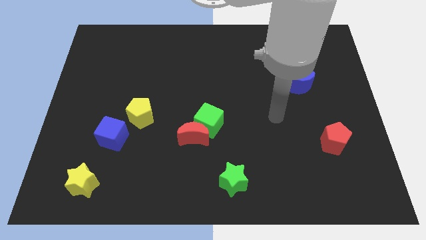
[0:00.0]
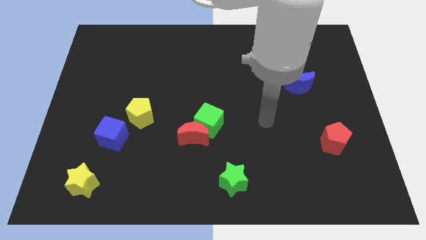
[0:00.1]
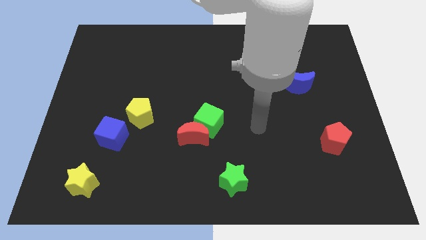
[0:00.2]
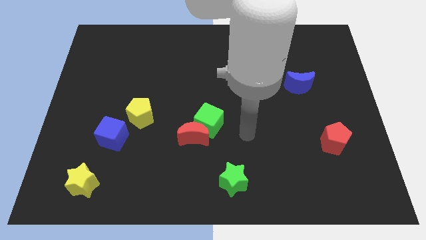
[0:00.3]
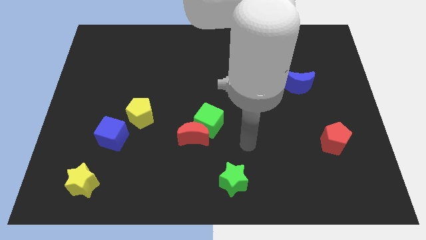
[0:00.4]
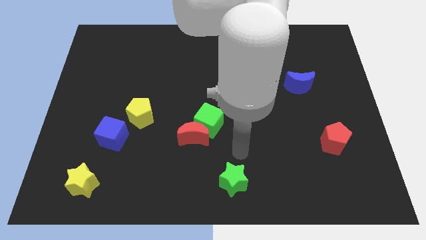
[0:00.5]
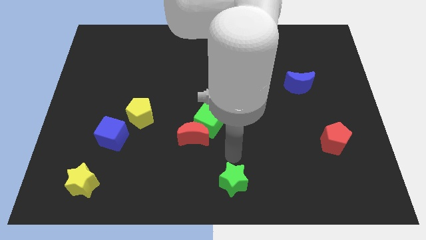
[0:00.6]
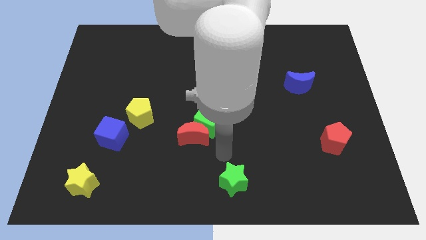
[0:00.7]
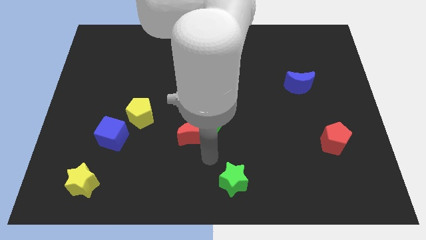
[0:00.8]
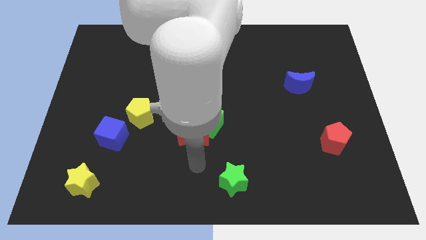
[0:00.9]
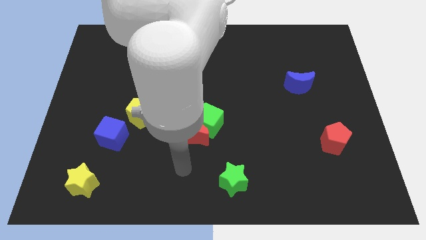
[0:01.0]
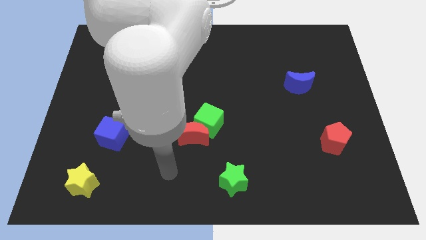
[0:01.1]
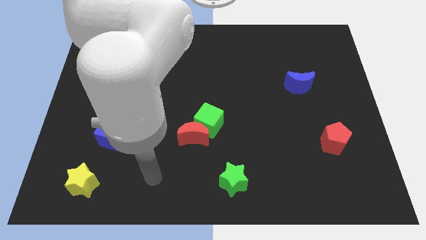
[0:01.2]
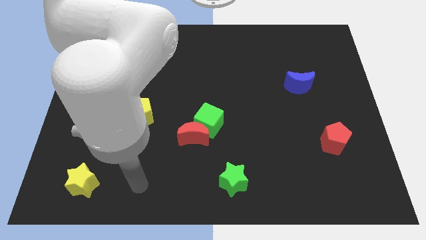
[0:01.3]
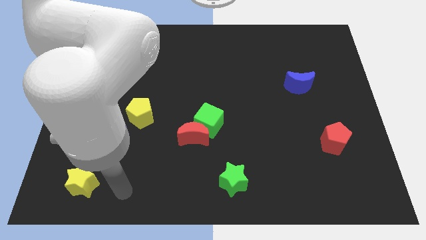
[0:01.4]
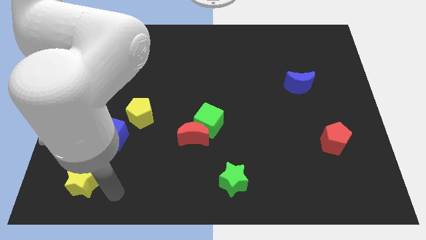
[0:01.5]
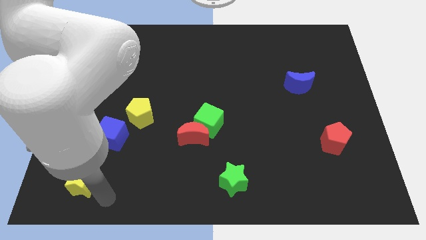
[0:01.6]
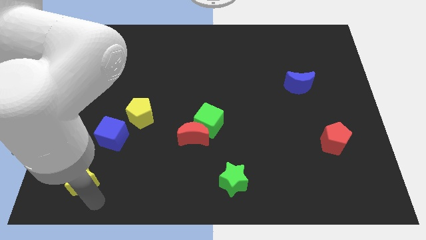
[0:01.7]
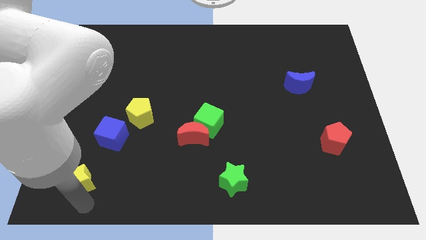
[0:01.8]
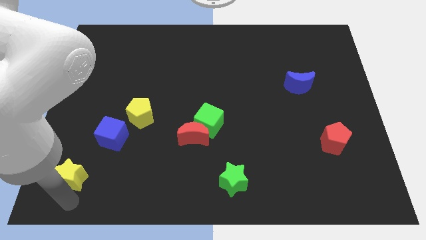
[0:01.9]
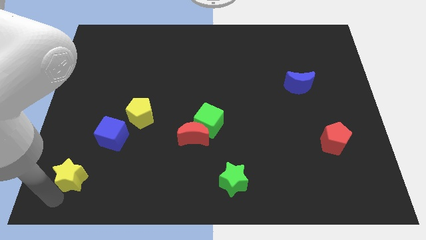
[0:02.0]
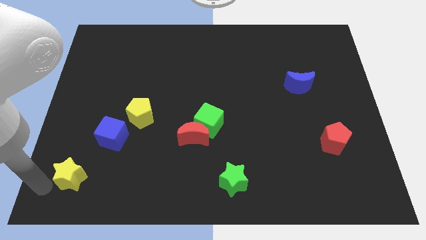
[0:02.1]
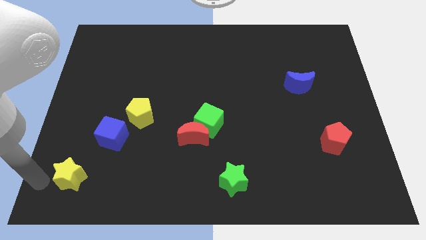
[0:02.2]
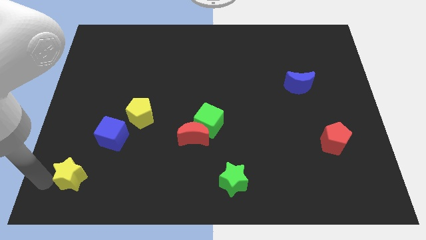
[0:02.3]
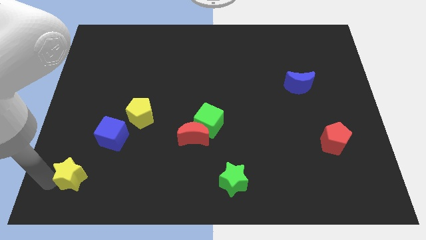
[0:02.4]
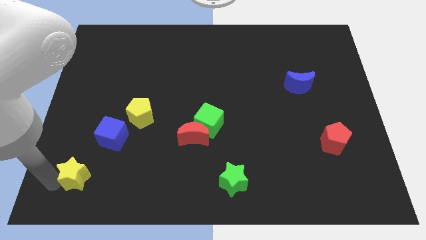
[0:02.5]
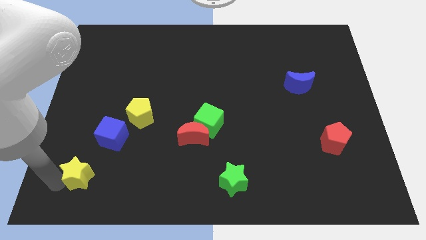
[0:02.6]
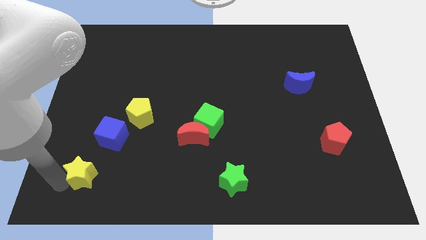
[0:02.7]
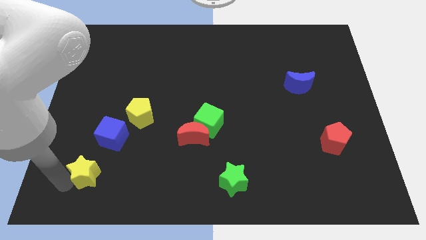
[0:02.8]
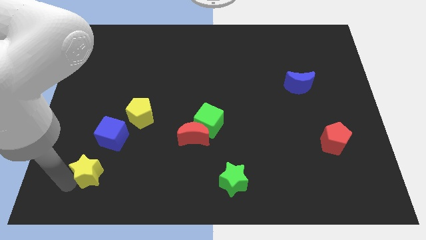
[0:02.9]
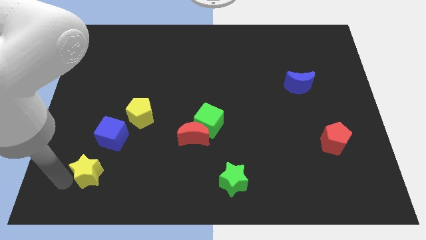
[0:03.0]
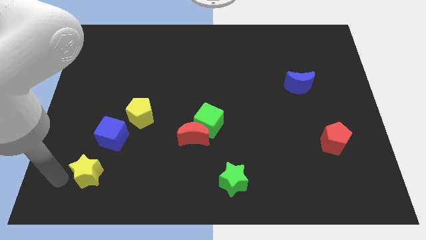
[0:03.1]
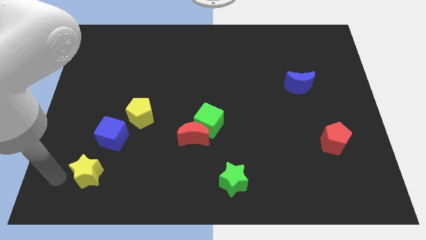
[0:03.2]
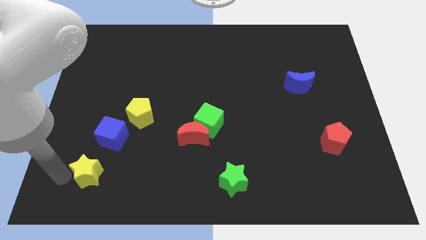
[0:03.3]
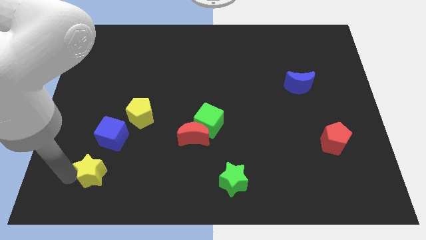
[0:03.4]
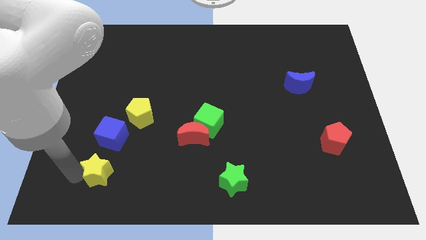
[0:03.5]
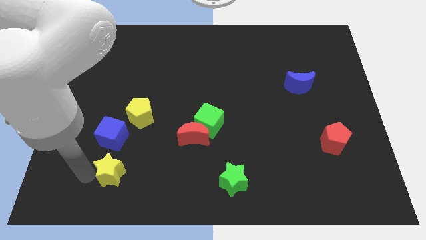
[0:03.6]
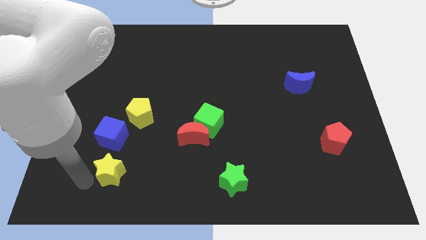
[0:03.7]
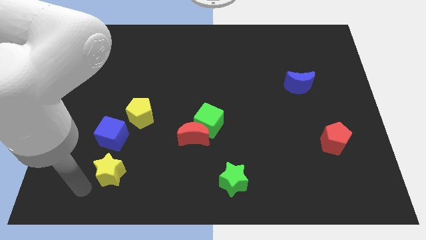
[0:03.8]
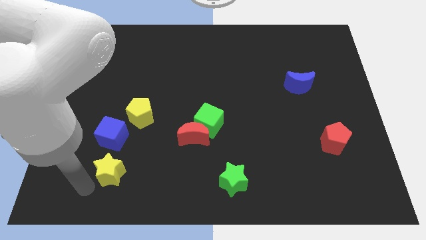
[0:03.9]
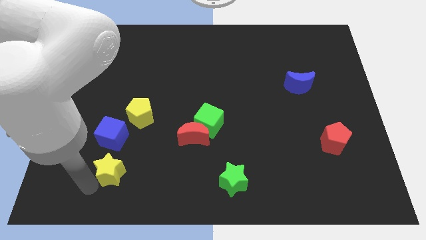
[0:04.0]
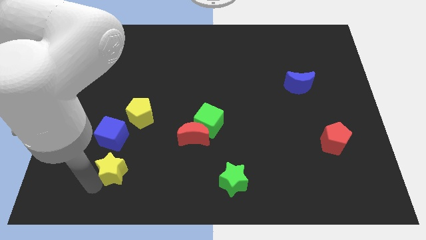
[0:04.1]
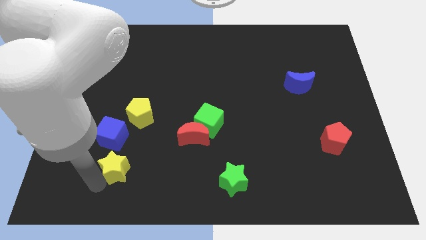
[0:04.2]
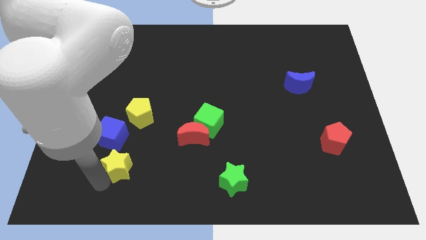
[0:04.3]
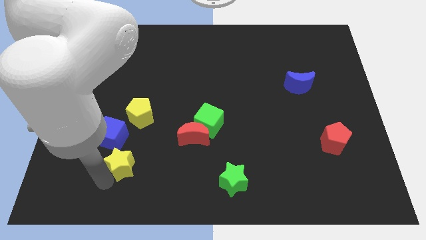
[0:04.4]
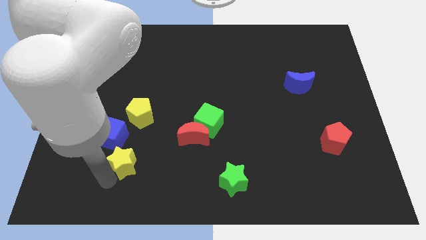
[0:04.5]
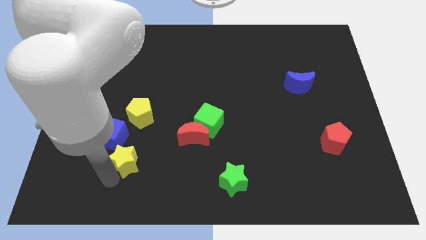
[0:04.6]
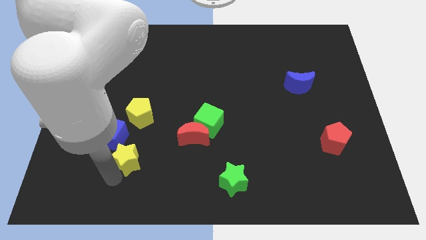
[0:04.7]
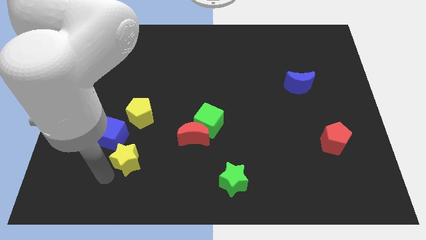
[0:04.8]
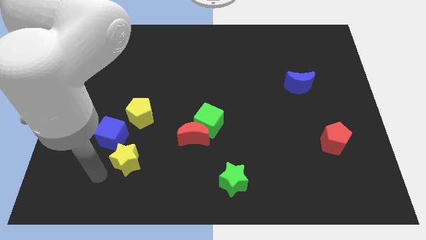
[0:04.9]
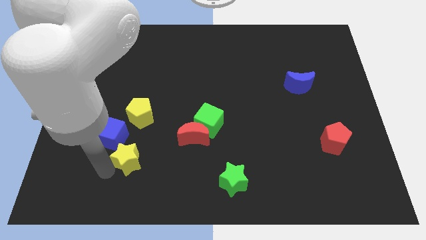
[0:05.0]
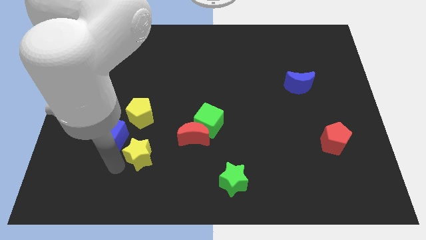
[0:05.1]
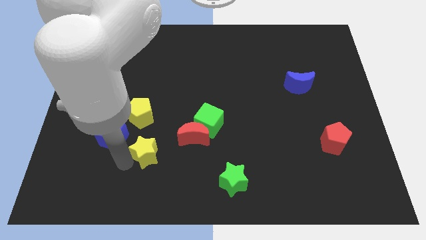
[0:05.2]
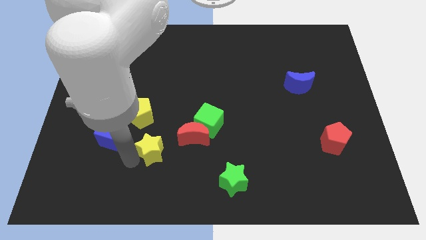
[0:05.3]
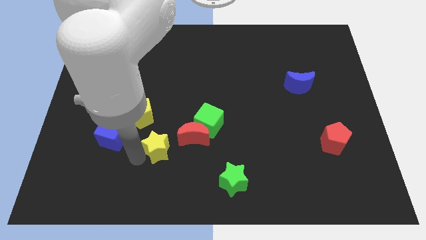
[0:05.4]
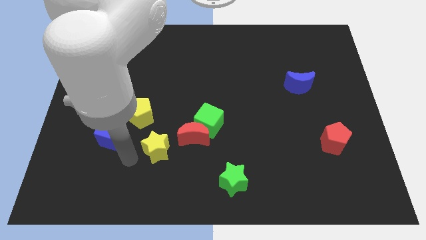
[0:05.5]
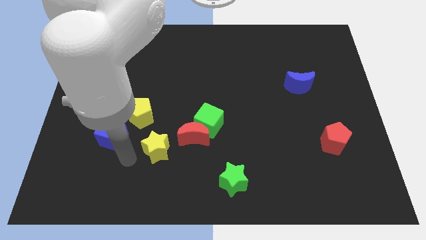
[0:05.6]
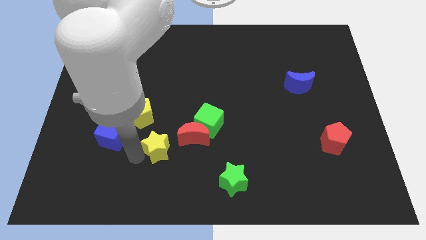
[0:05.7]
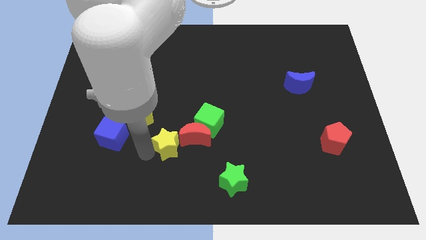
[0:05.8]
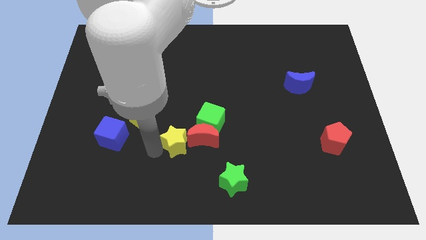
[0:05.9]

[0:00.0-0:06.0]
slide the yellow star to the red moon

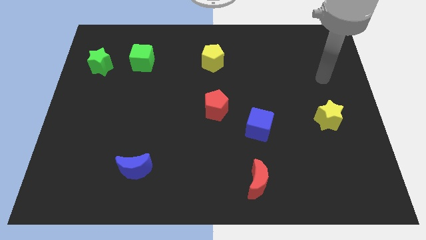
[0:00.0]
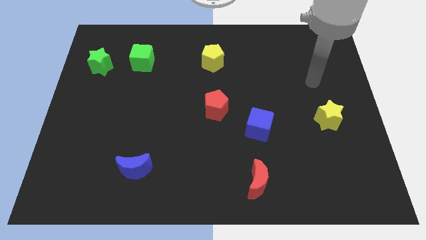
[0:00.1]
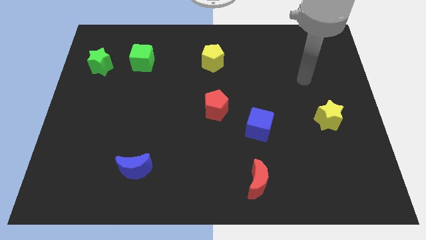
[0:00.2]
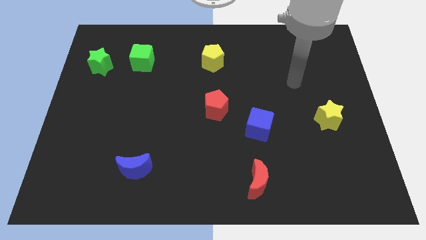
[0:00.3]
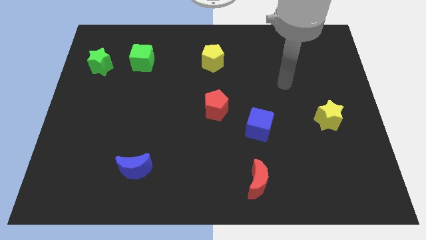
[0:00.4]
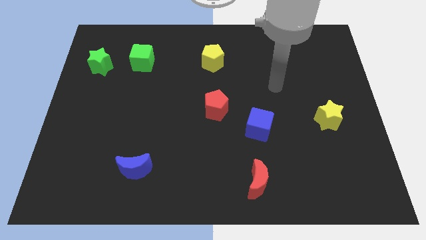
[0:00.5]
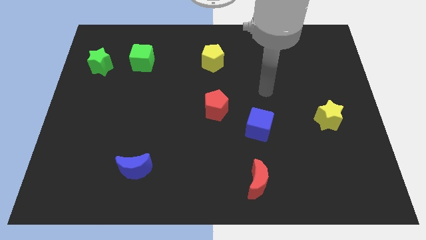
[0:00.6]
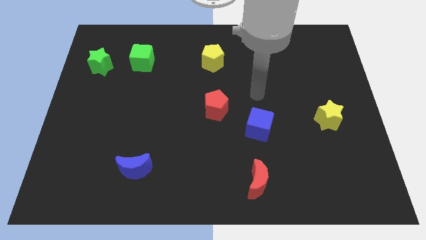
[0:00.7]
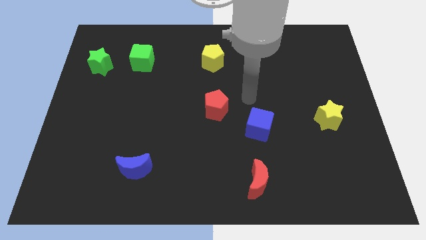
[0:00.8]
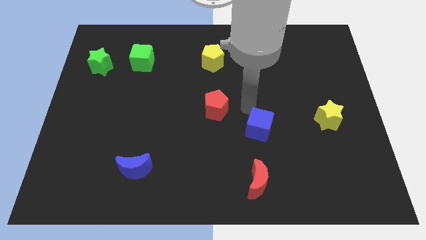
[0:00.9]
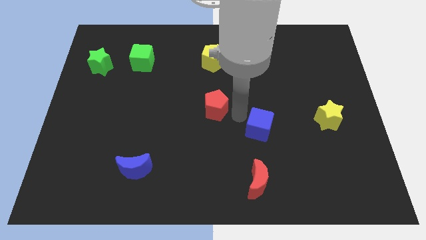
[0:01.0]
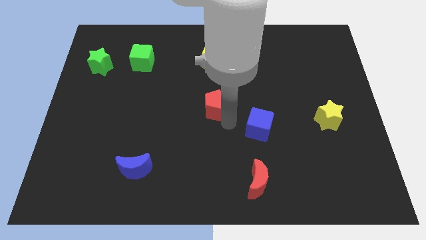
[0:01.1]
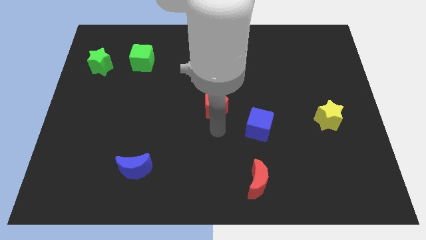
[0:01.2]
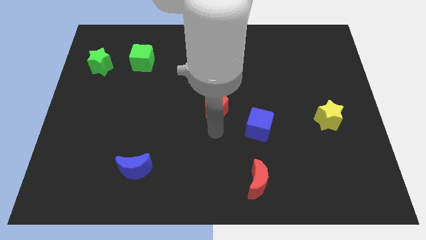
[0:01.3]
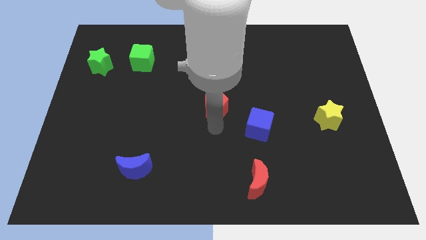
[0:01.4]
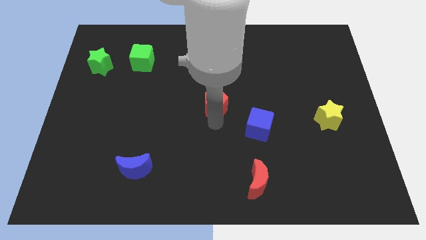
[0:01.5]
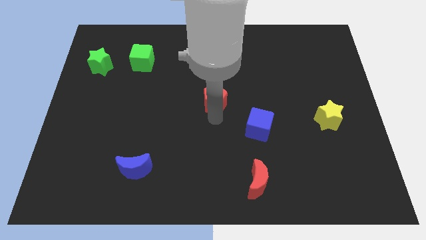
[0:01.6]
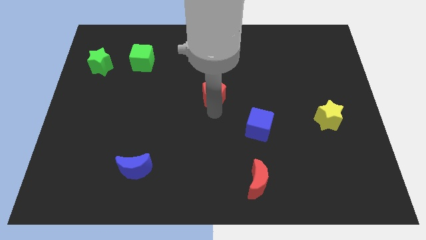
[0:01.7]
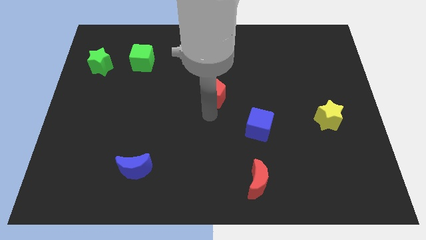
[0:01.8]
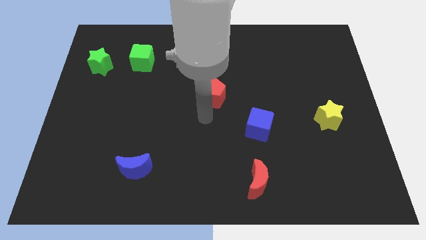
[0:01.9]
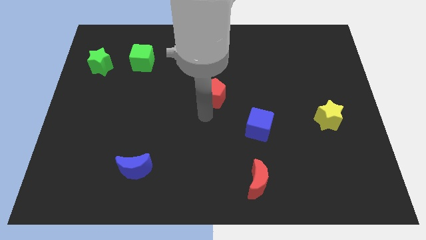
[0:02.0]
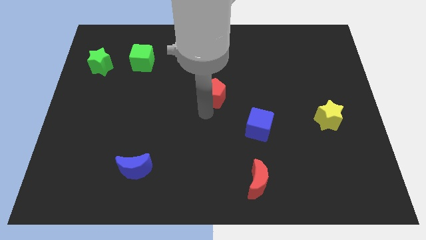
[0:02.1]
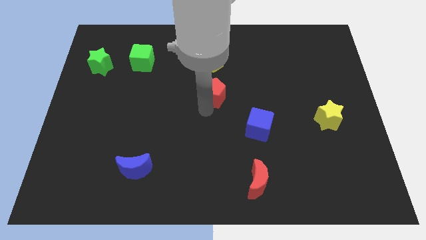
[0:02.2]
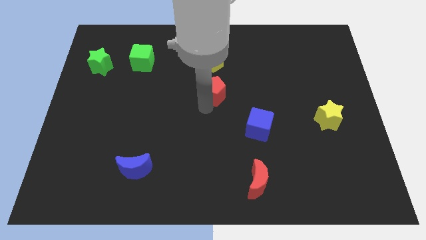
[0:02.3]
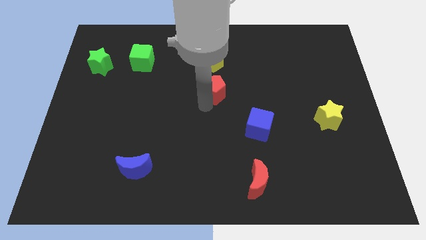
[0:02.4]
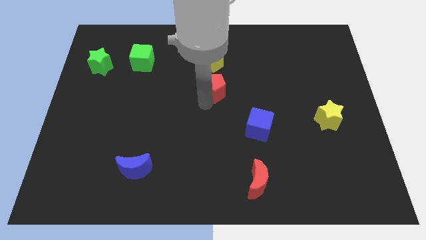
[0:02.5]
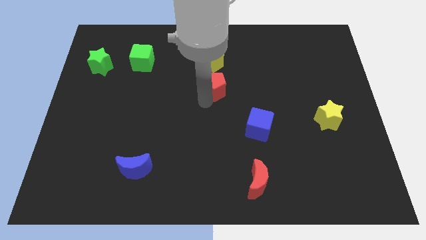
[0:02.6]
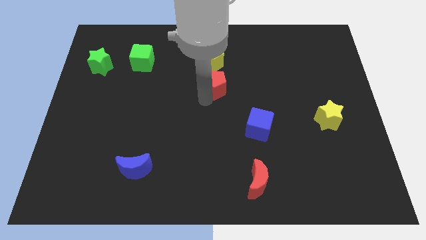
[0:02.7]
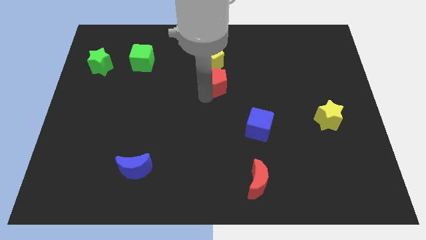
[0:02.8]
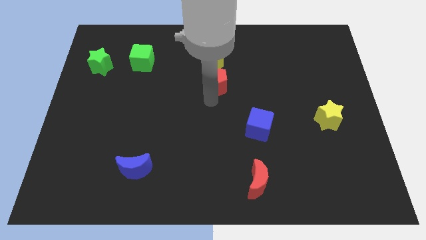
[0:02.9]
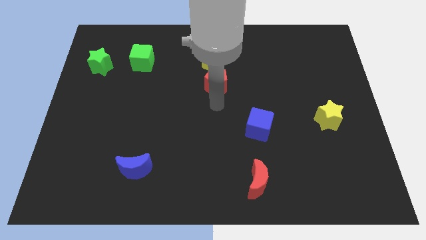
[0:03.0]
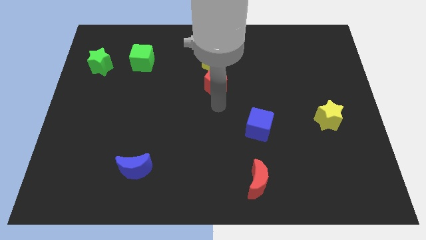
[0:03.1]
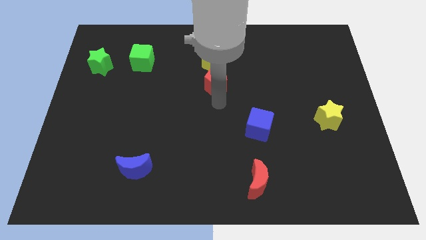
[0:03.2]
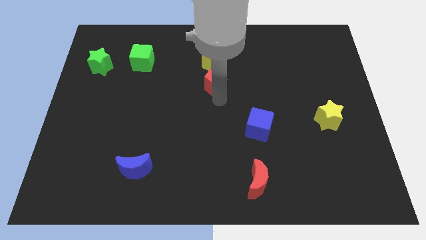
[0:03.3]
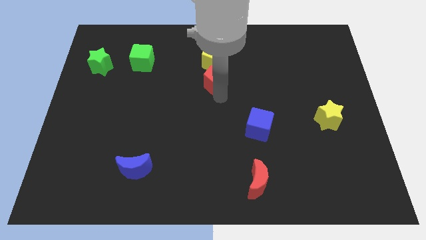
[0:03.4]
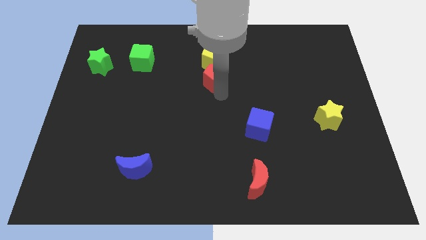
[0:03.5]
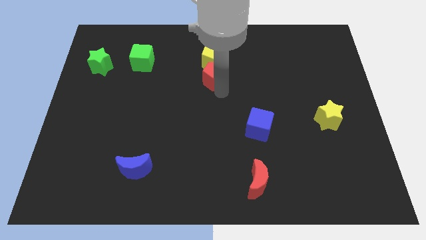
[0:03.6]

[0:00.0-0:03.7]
put the red pentagon to the yellow pentagon
